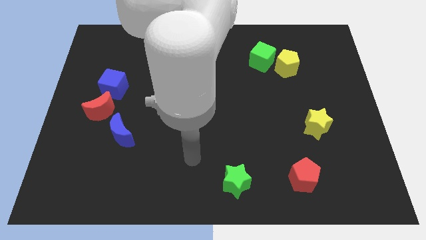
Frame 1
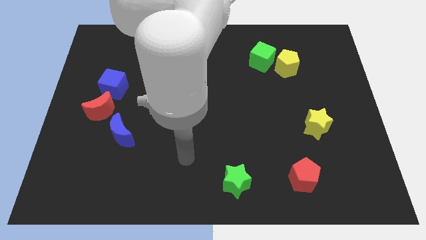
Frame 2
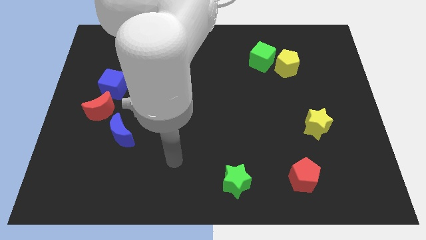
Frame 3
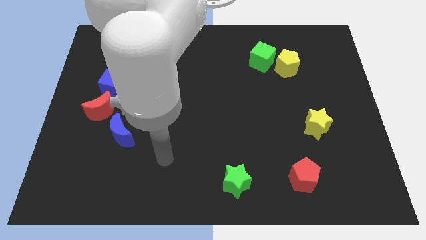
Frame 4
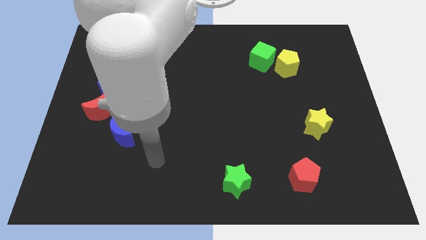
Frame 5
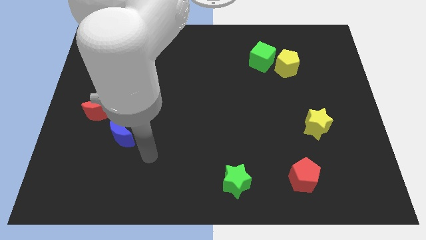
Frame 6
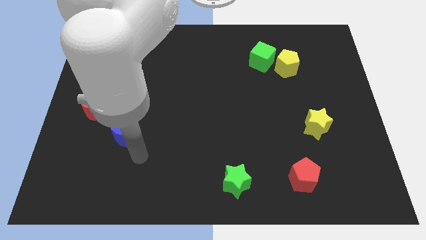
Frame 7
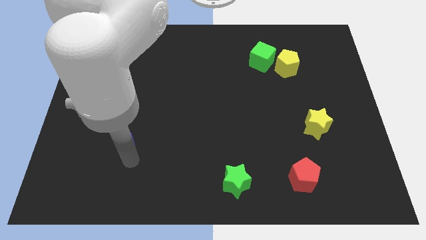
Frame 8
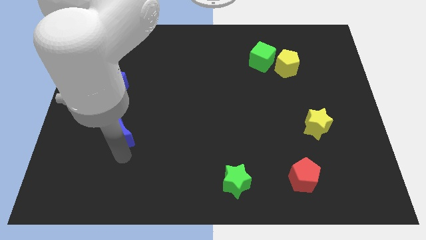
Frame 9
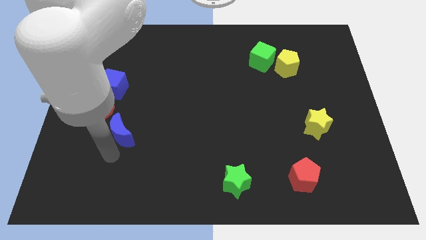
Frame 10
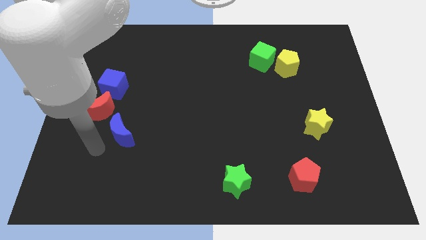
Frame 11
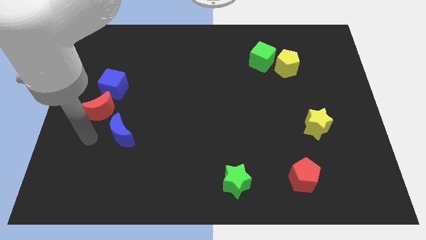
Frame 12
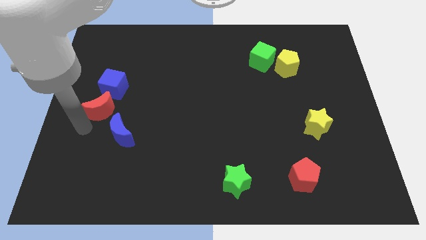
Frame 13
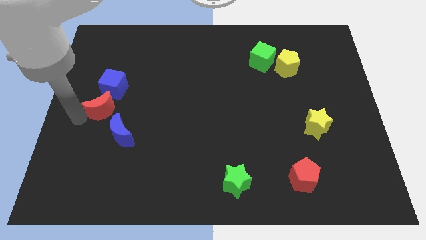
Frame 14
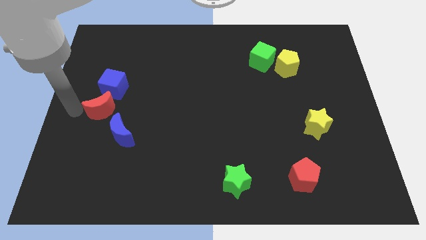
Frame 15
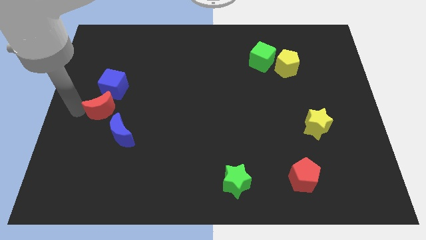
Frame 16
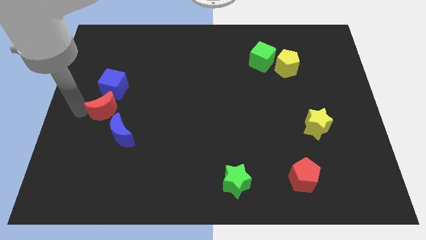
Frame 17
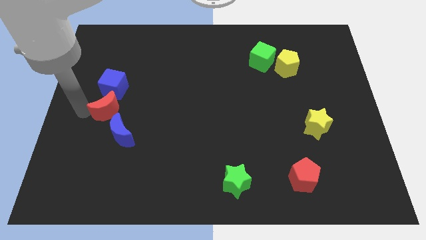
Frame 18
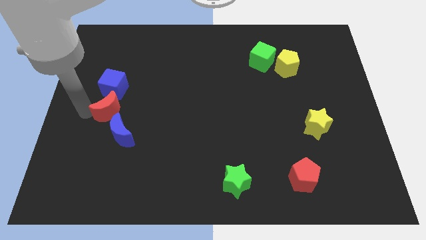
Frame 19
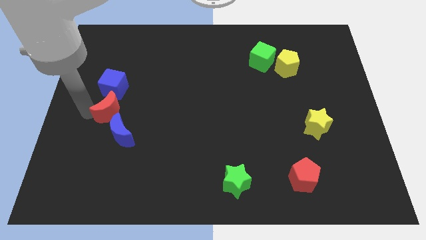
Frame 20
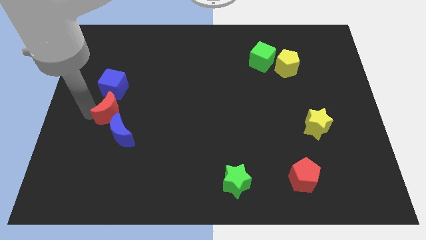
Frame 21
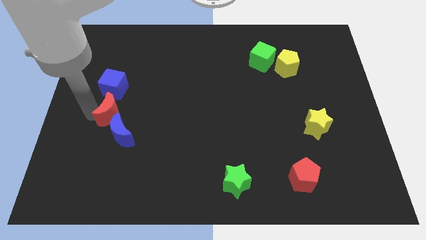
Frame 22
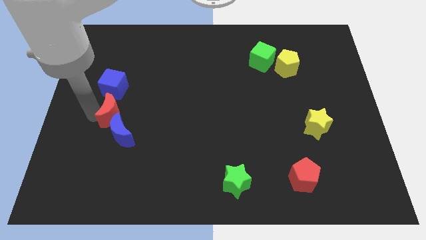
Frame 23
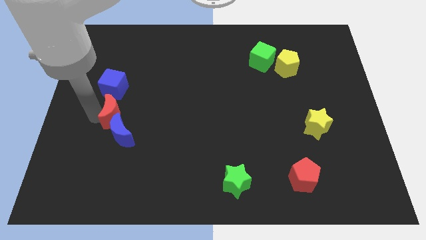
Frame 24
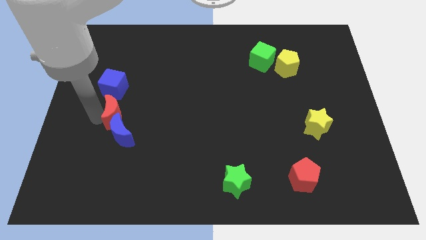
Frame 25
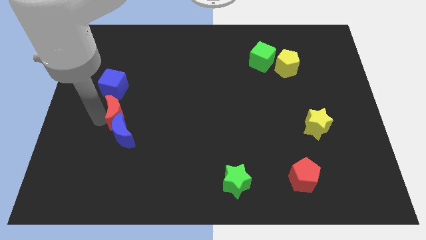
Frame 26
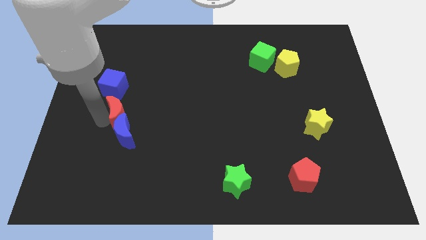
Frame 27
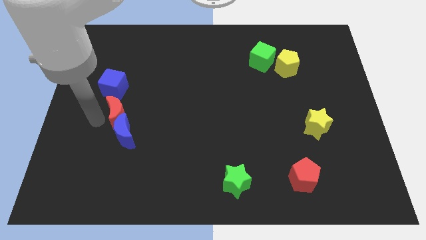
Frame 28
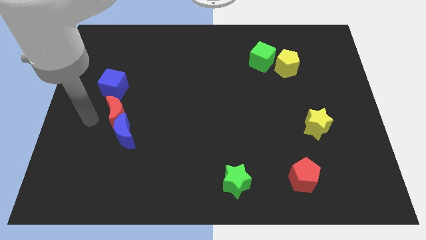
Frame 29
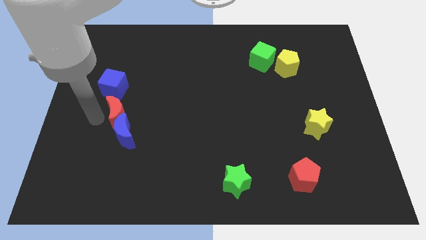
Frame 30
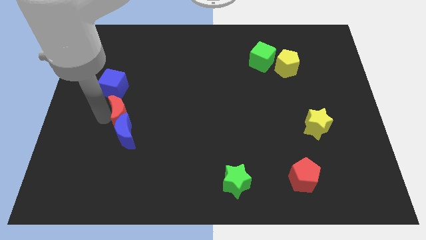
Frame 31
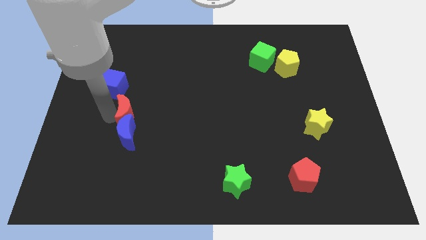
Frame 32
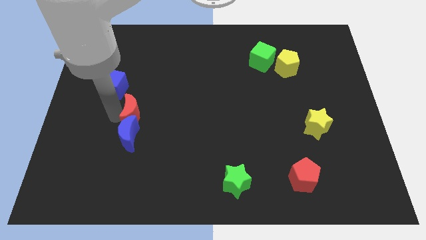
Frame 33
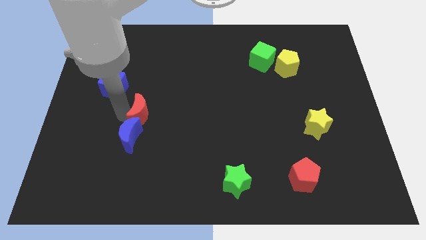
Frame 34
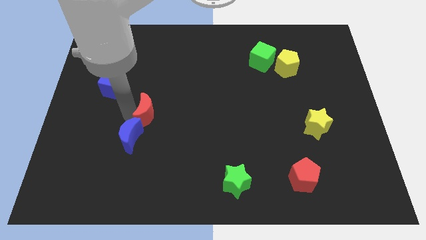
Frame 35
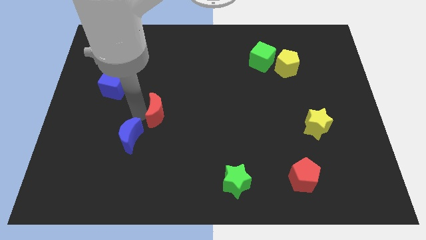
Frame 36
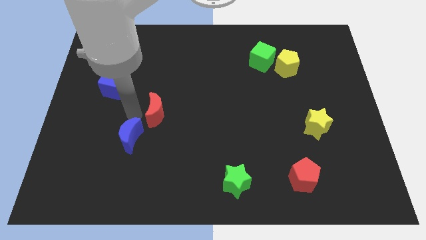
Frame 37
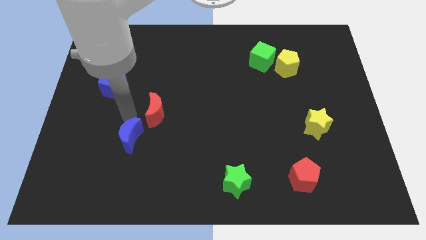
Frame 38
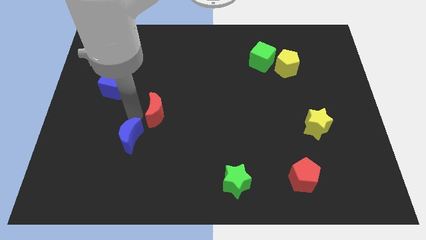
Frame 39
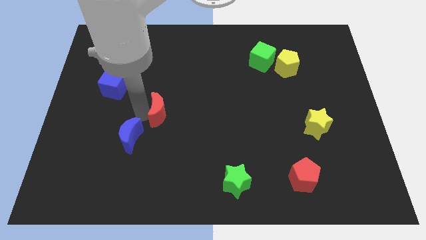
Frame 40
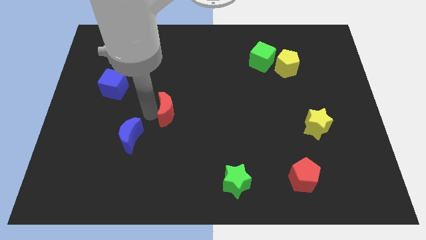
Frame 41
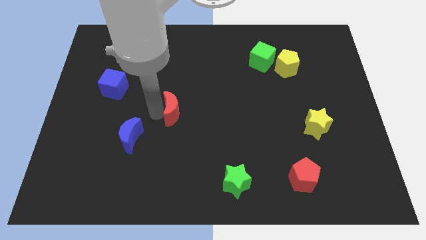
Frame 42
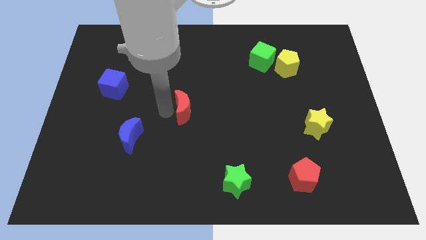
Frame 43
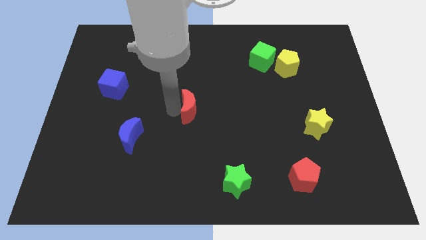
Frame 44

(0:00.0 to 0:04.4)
slide the red moon right

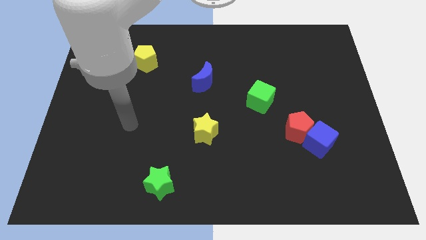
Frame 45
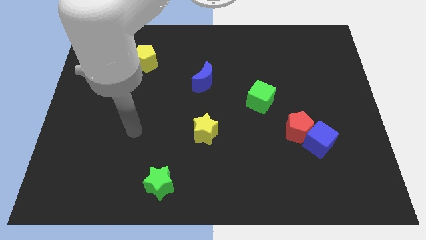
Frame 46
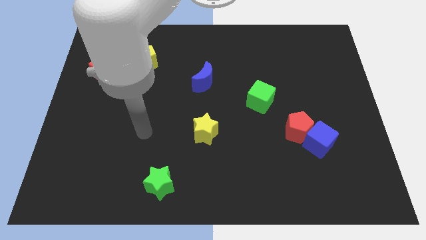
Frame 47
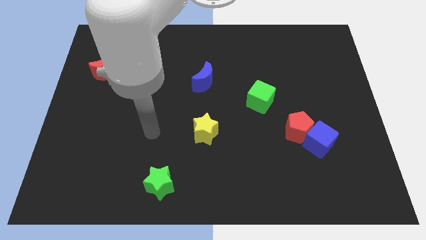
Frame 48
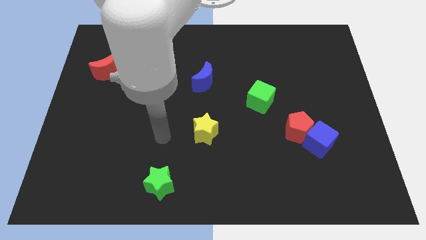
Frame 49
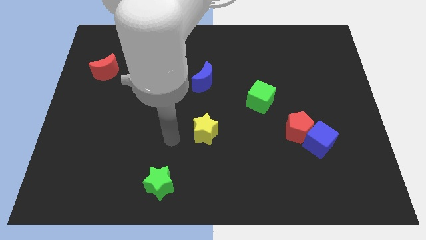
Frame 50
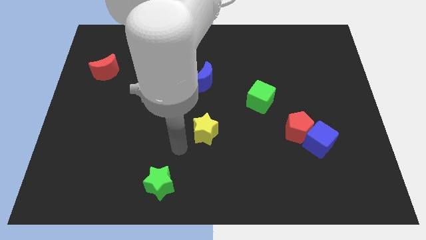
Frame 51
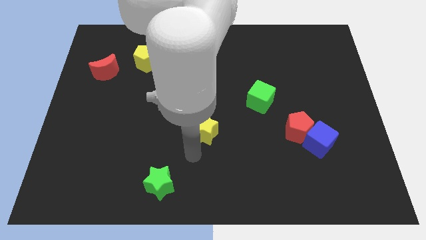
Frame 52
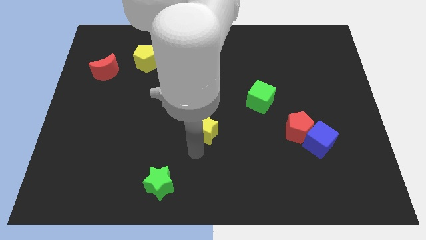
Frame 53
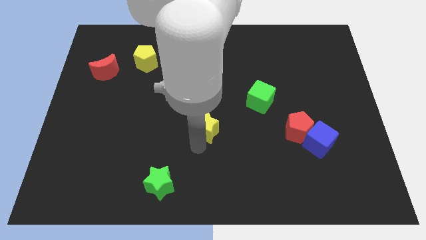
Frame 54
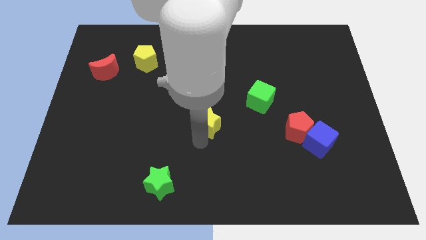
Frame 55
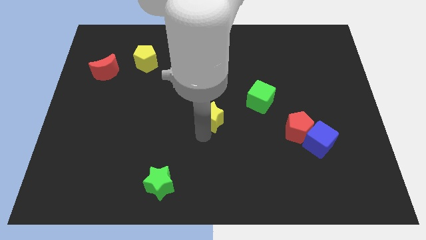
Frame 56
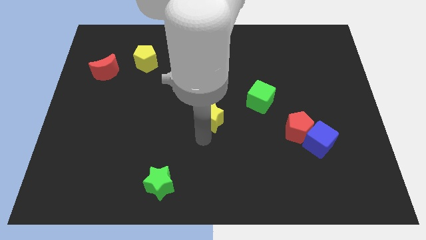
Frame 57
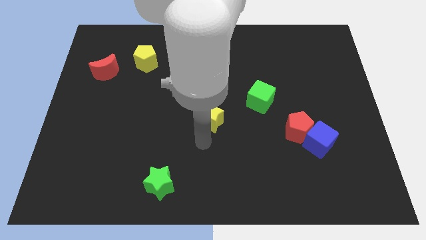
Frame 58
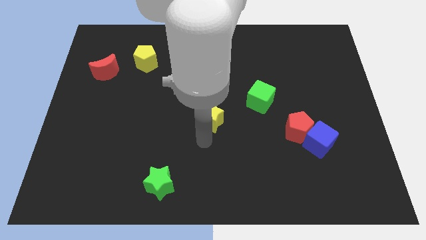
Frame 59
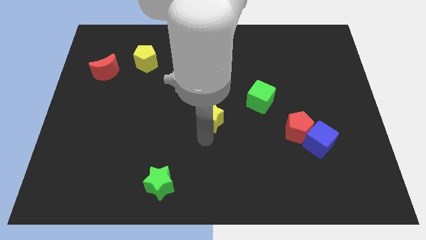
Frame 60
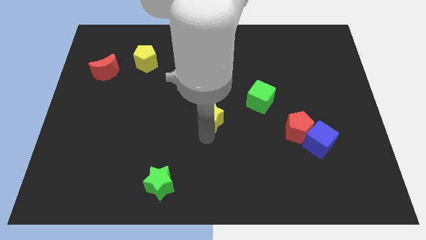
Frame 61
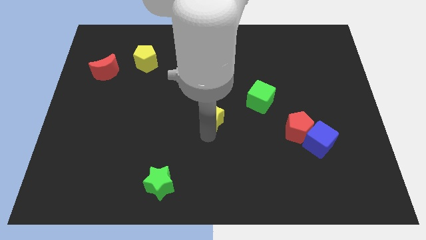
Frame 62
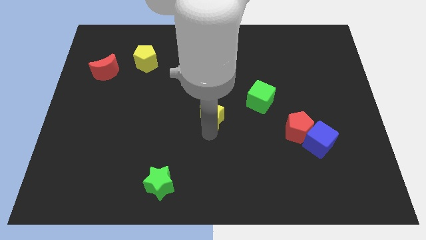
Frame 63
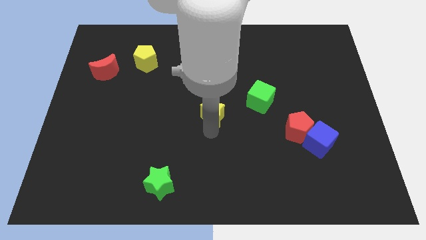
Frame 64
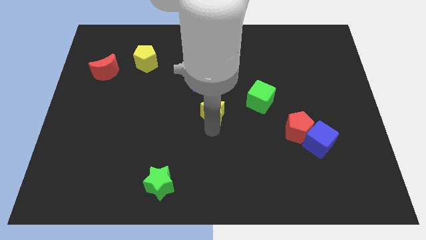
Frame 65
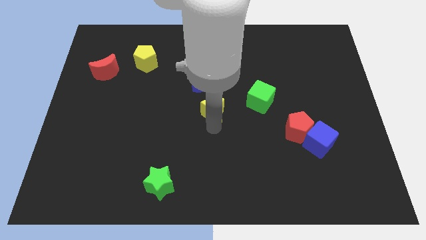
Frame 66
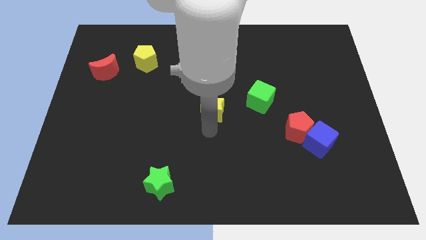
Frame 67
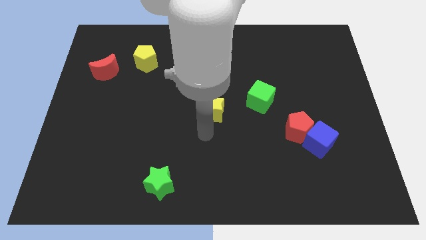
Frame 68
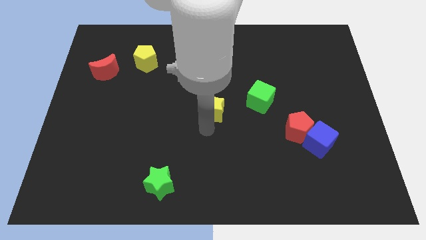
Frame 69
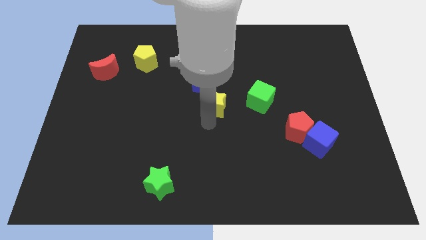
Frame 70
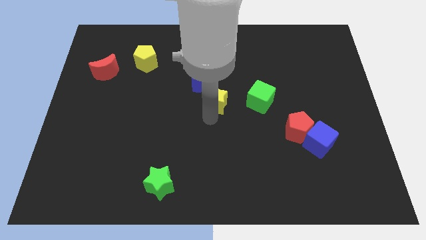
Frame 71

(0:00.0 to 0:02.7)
move the yellow star upwards and right diagonally slightly

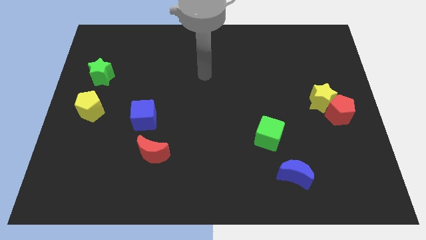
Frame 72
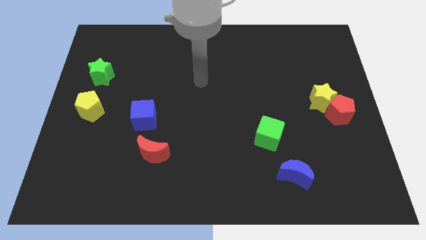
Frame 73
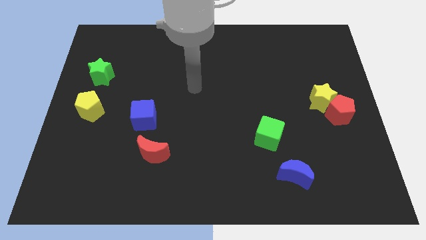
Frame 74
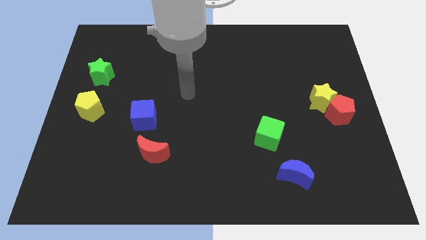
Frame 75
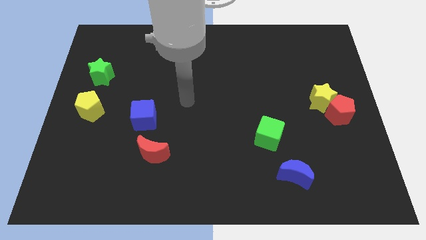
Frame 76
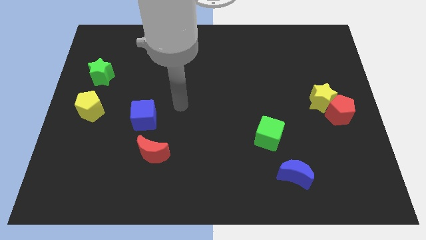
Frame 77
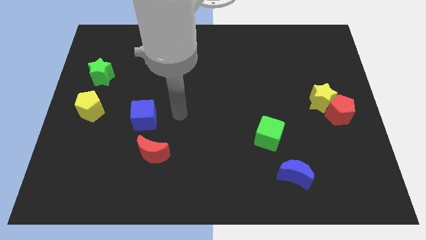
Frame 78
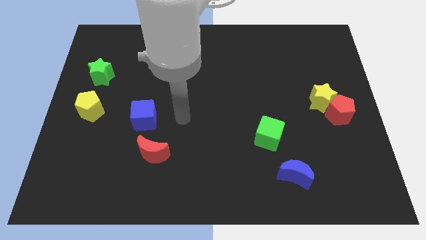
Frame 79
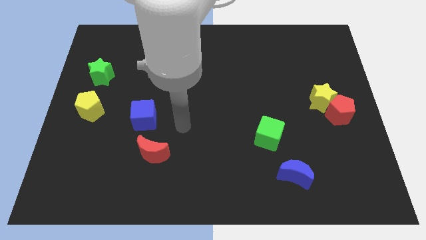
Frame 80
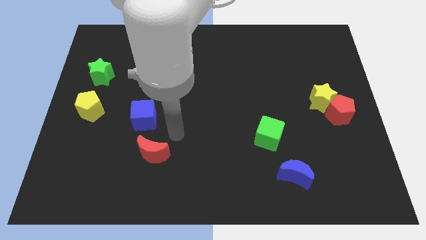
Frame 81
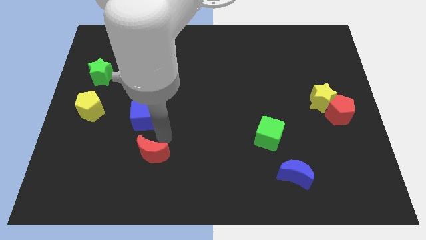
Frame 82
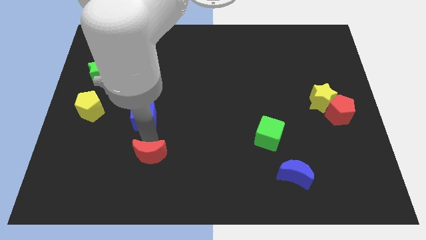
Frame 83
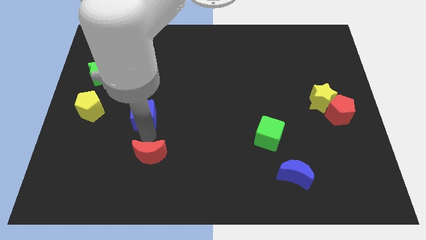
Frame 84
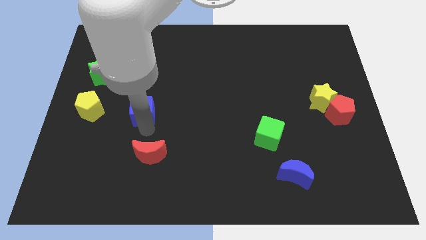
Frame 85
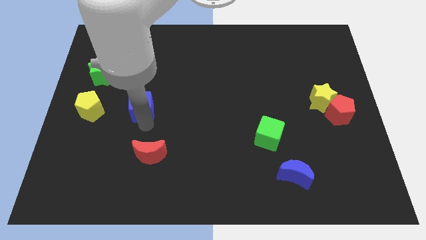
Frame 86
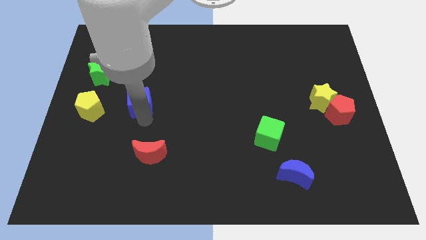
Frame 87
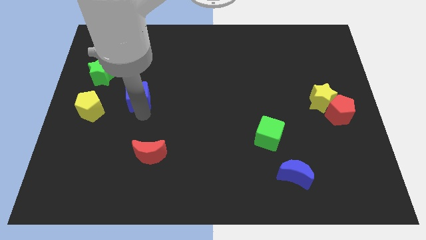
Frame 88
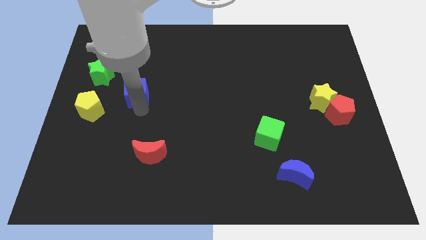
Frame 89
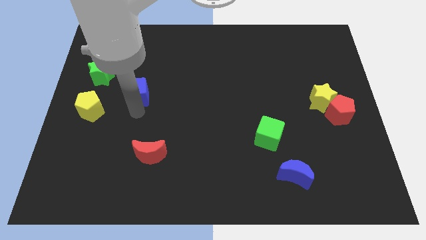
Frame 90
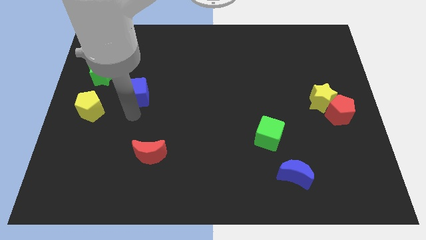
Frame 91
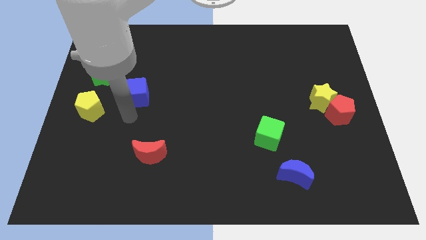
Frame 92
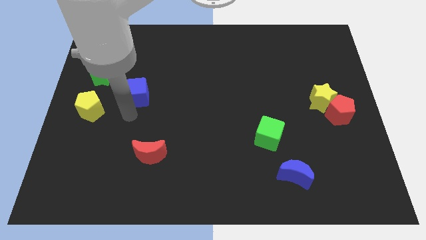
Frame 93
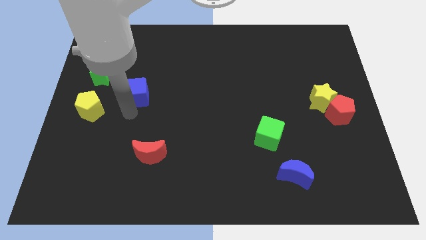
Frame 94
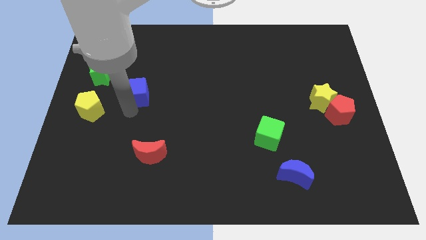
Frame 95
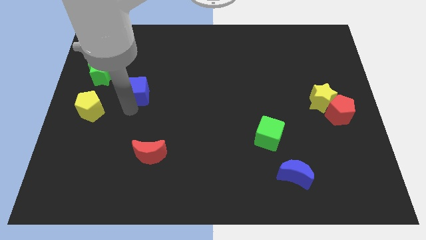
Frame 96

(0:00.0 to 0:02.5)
push the blue cube upwards slightly
